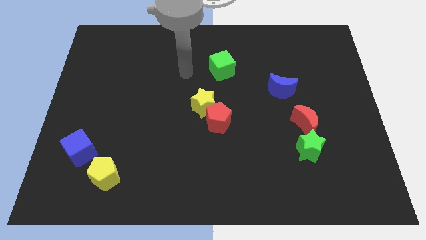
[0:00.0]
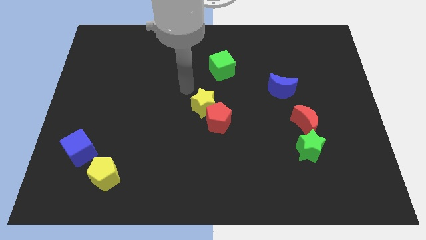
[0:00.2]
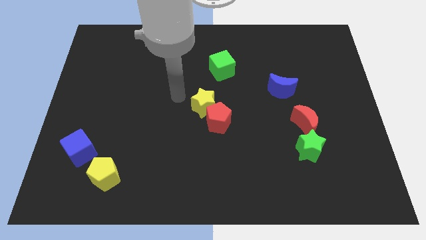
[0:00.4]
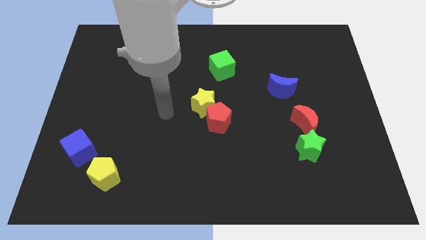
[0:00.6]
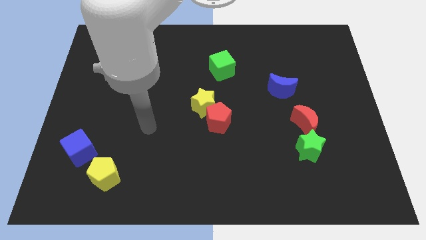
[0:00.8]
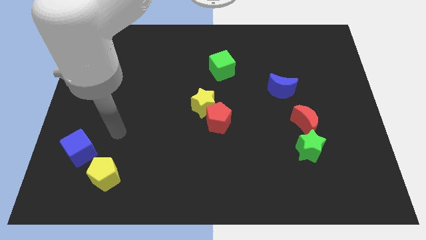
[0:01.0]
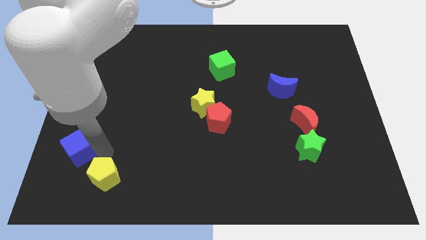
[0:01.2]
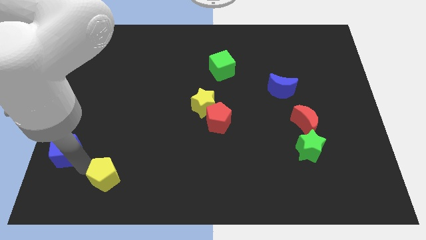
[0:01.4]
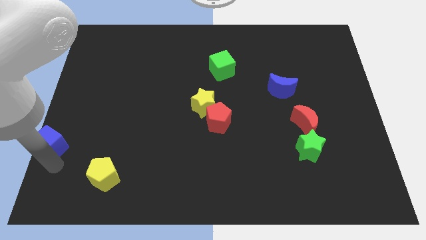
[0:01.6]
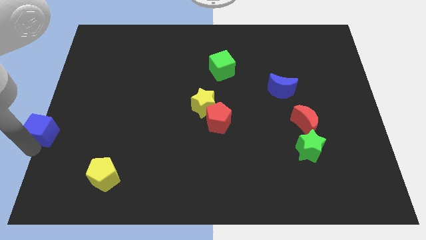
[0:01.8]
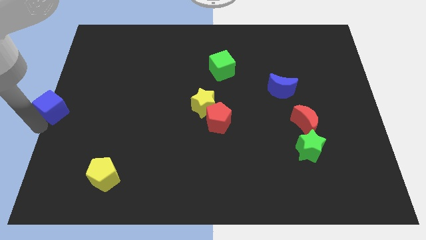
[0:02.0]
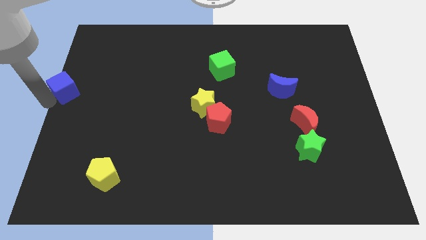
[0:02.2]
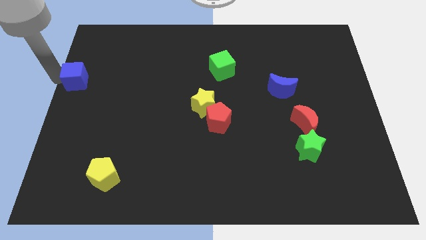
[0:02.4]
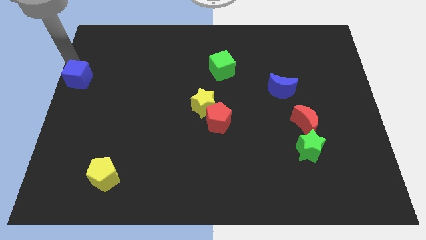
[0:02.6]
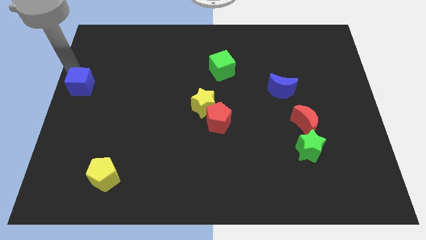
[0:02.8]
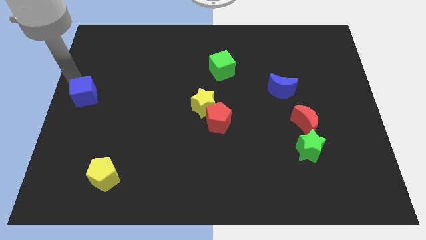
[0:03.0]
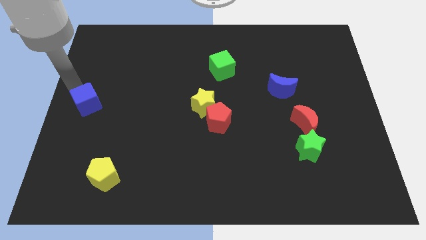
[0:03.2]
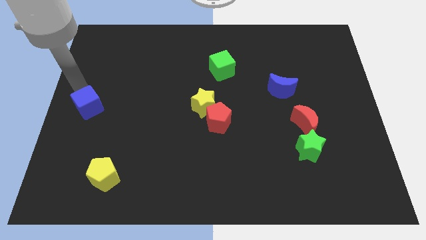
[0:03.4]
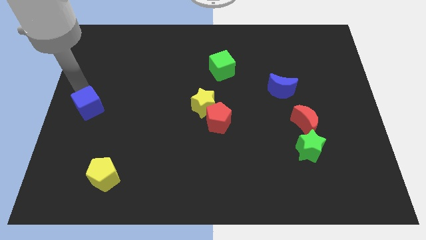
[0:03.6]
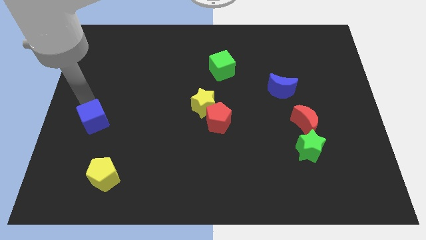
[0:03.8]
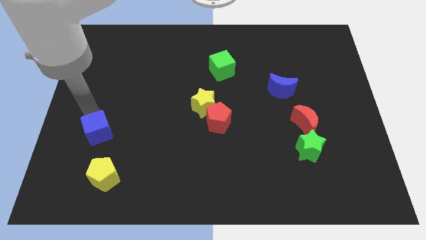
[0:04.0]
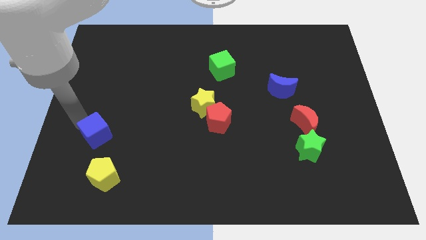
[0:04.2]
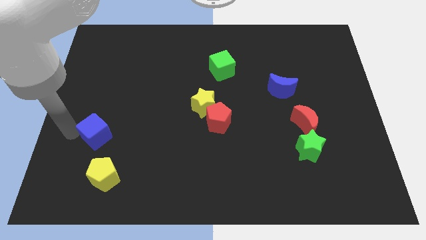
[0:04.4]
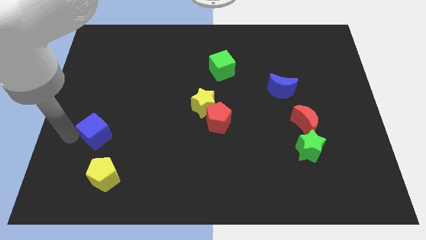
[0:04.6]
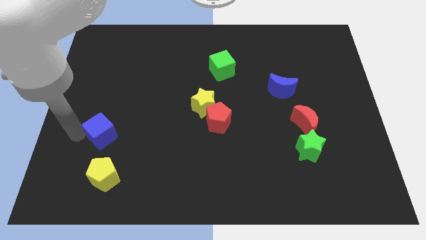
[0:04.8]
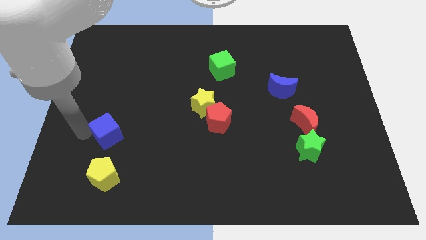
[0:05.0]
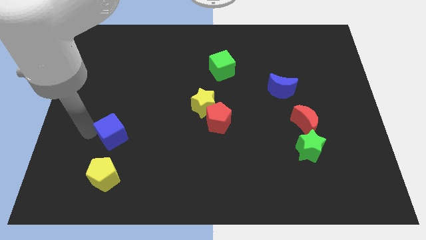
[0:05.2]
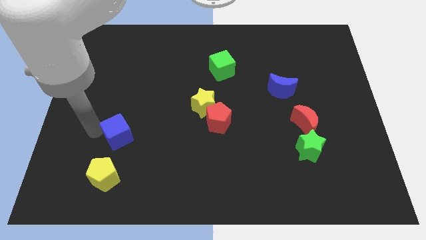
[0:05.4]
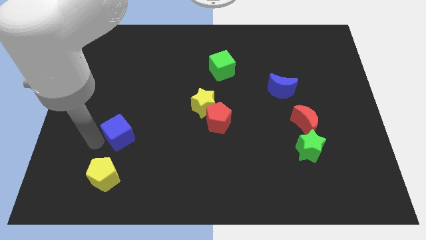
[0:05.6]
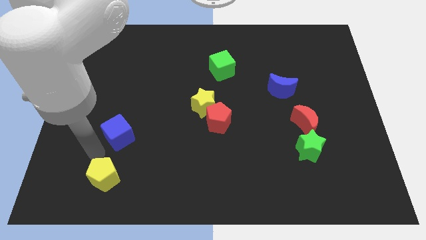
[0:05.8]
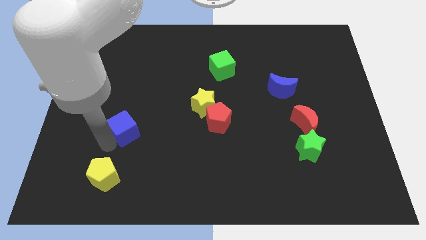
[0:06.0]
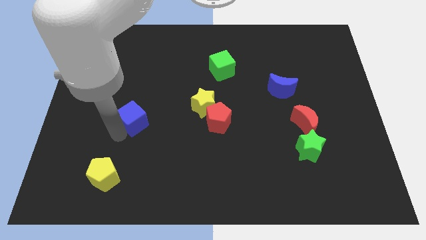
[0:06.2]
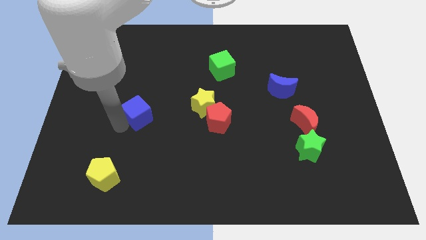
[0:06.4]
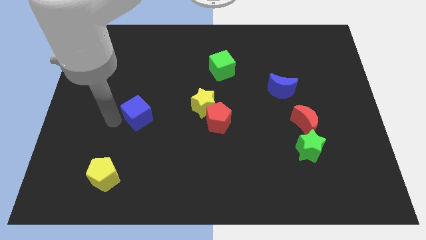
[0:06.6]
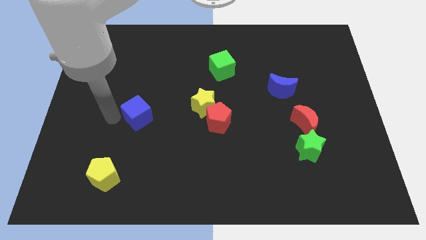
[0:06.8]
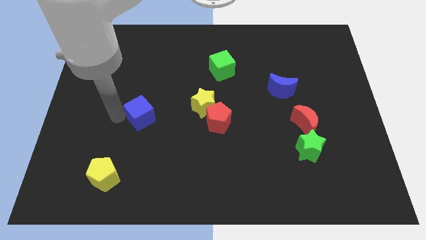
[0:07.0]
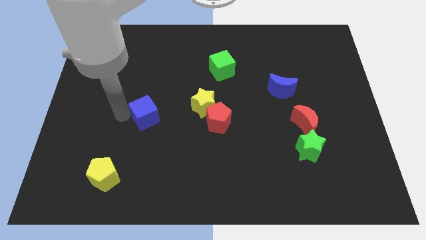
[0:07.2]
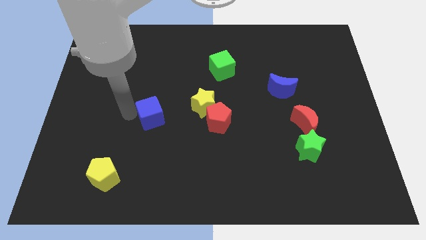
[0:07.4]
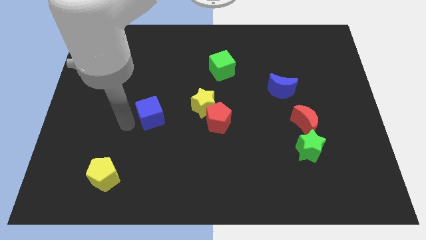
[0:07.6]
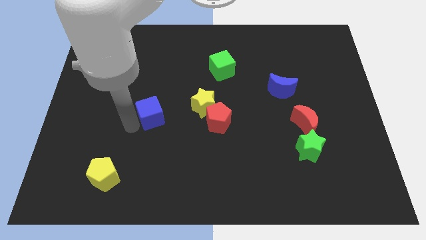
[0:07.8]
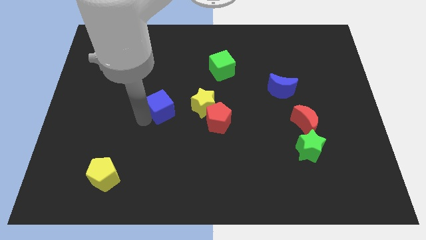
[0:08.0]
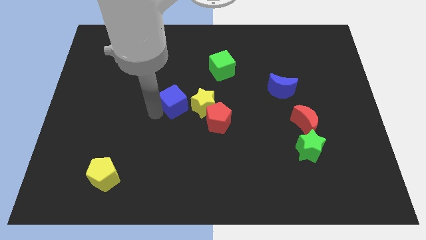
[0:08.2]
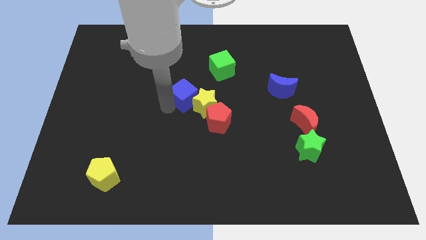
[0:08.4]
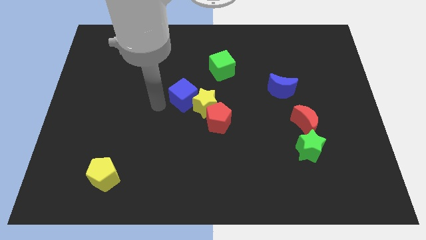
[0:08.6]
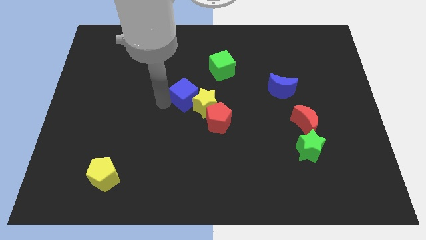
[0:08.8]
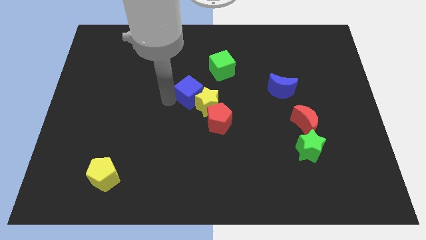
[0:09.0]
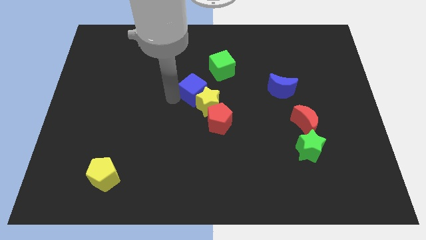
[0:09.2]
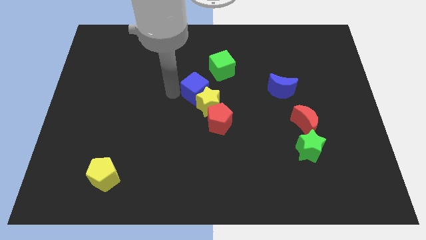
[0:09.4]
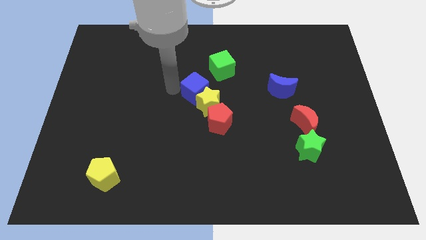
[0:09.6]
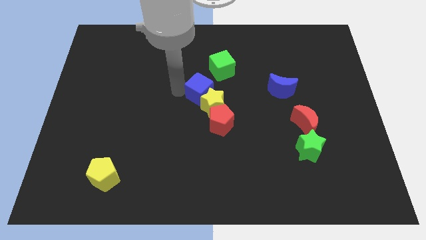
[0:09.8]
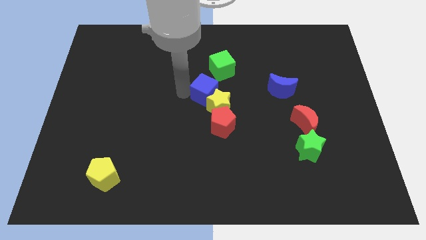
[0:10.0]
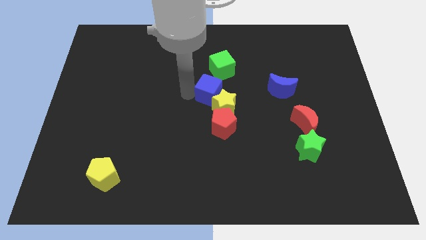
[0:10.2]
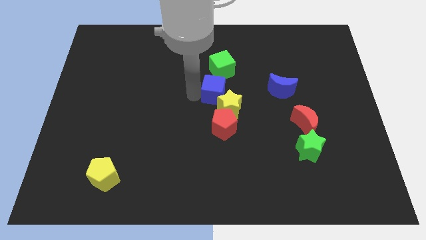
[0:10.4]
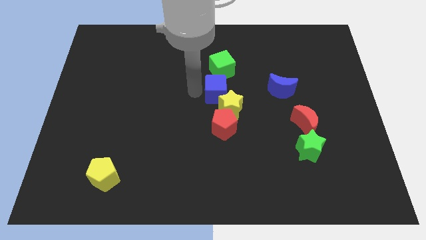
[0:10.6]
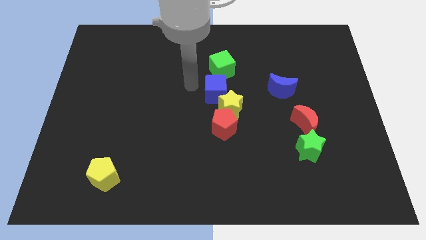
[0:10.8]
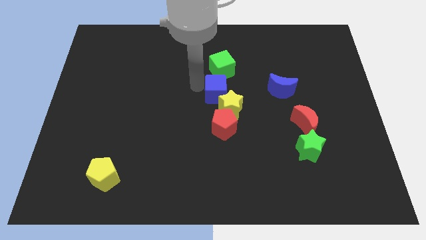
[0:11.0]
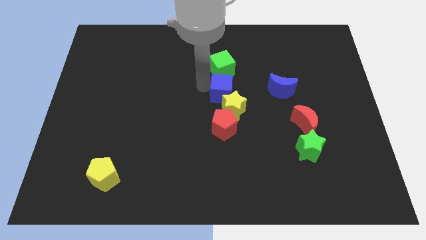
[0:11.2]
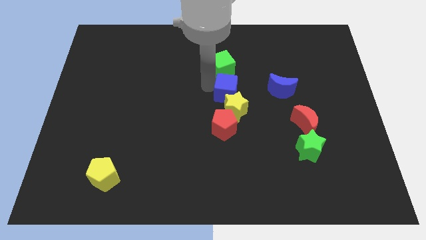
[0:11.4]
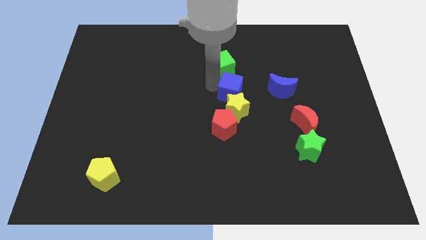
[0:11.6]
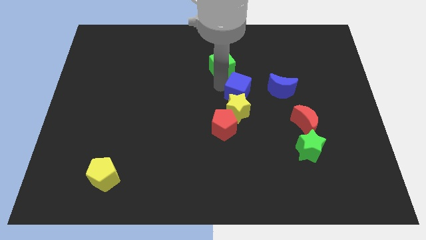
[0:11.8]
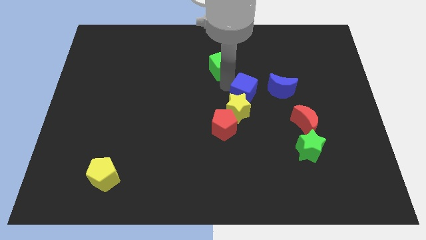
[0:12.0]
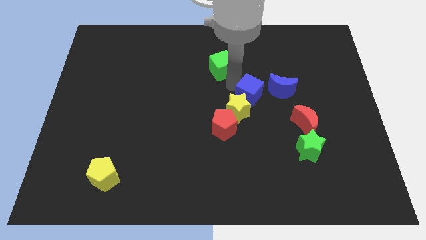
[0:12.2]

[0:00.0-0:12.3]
slide the blue cube diagonally down and to the left of the blue moon

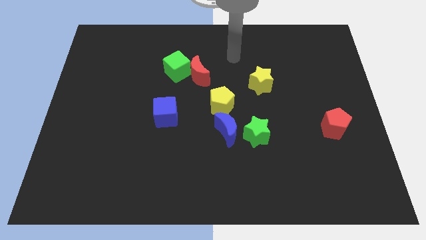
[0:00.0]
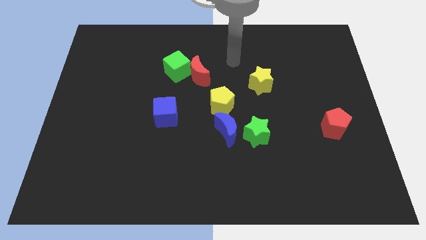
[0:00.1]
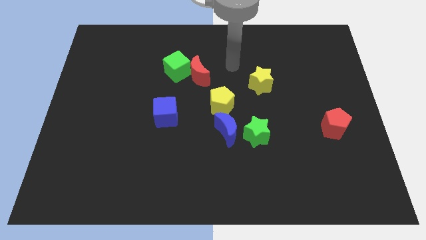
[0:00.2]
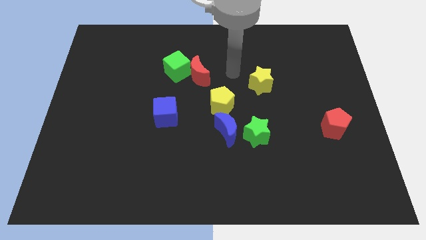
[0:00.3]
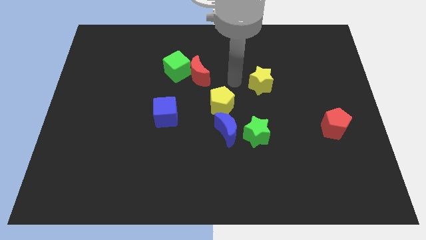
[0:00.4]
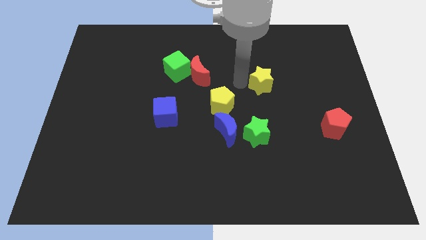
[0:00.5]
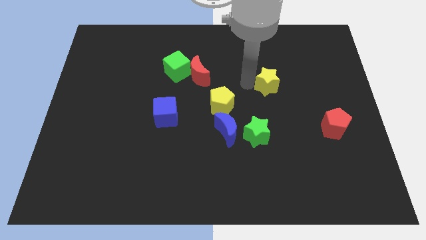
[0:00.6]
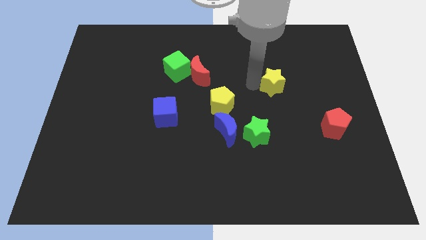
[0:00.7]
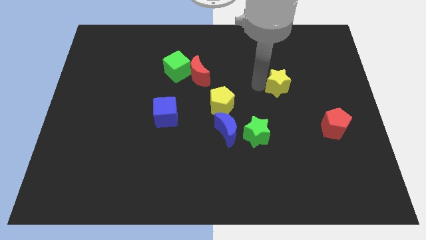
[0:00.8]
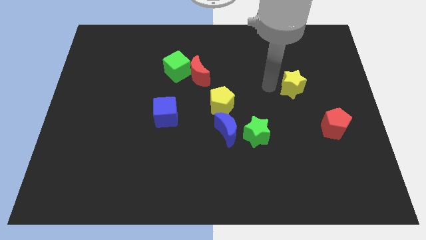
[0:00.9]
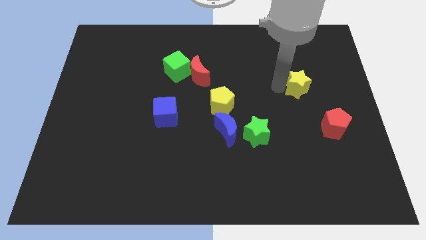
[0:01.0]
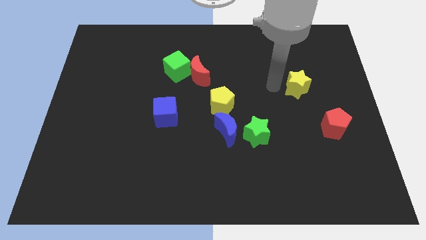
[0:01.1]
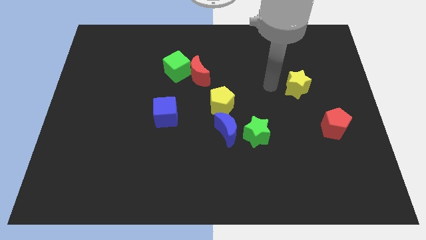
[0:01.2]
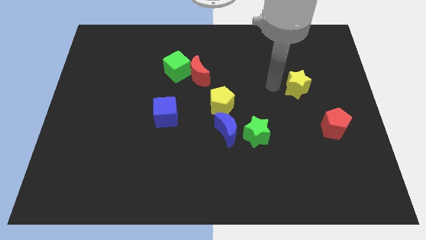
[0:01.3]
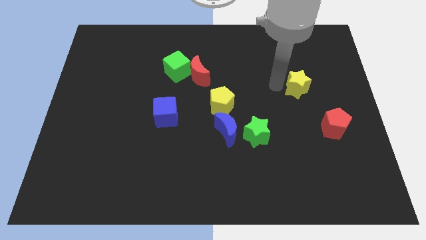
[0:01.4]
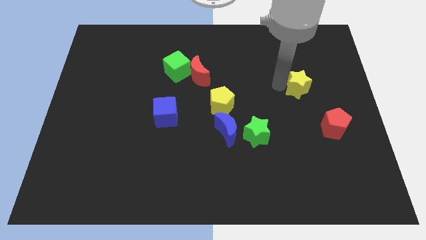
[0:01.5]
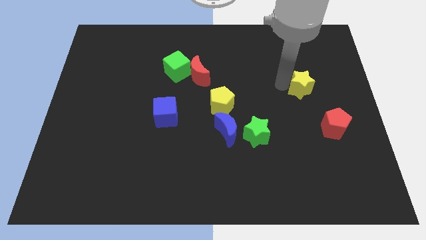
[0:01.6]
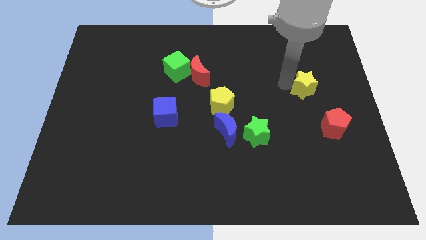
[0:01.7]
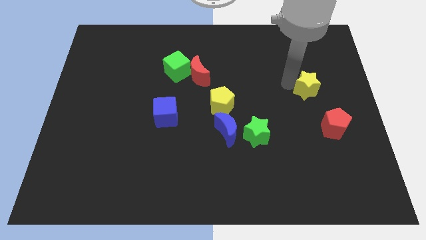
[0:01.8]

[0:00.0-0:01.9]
move the yellow star to the top of the red pentagon
